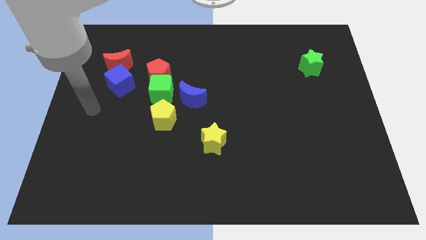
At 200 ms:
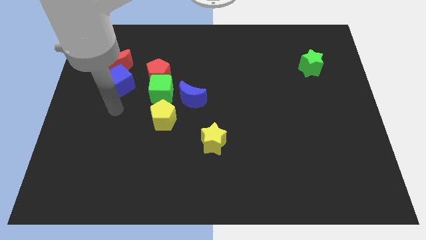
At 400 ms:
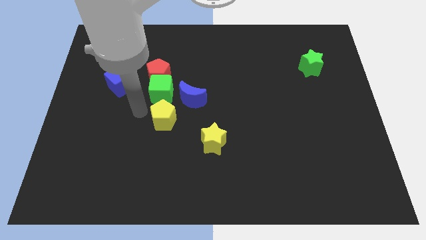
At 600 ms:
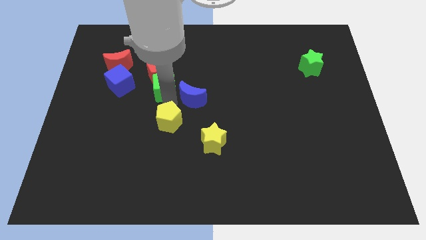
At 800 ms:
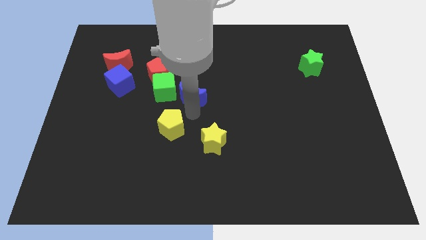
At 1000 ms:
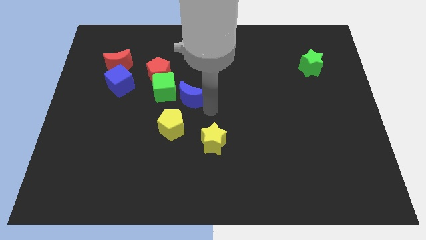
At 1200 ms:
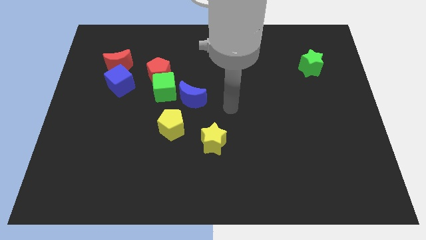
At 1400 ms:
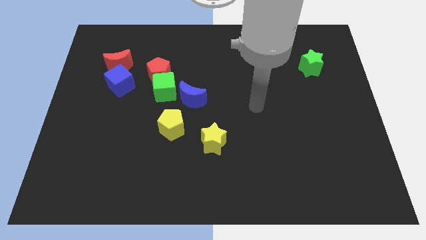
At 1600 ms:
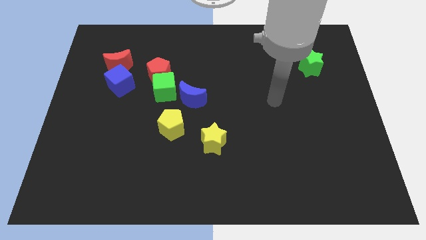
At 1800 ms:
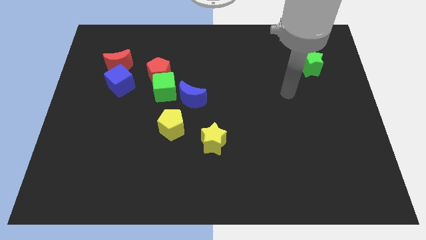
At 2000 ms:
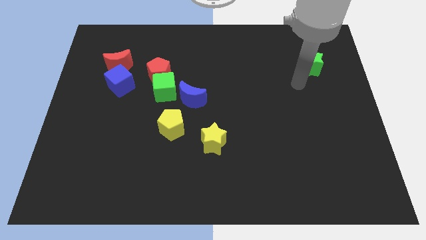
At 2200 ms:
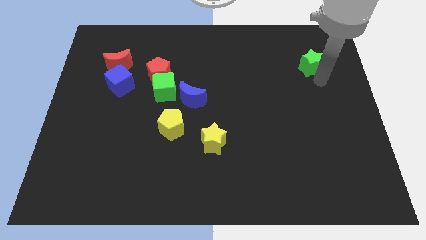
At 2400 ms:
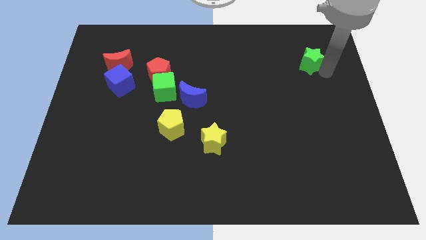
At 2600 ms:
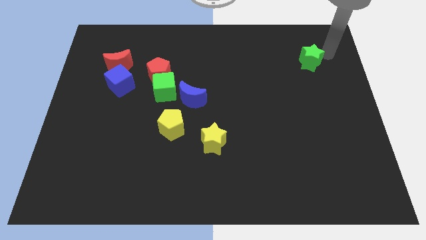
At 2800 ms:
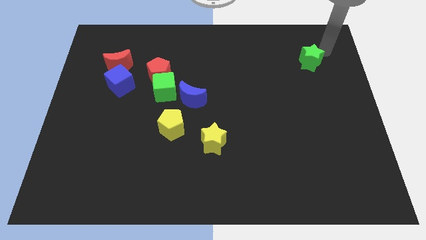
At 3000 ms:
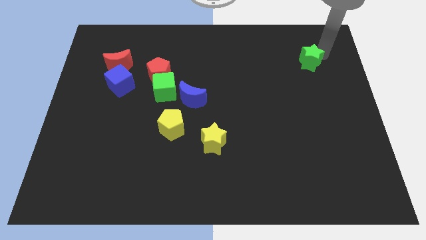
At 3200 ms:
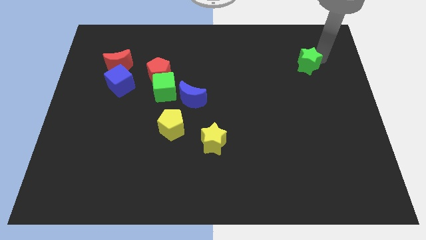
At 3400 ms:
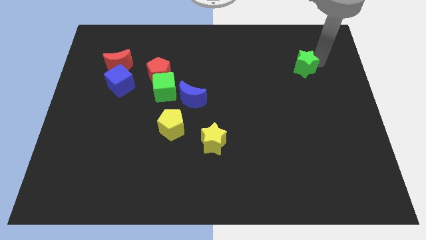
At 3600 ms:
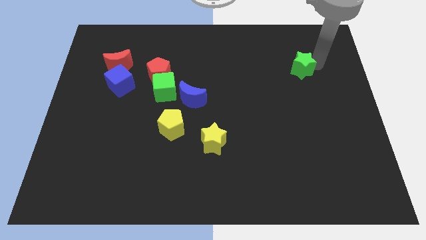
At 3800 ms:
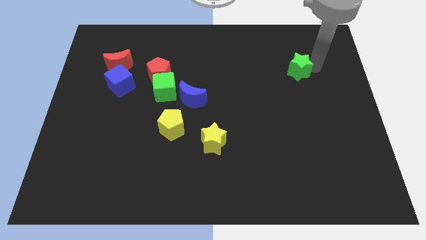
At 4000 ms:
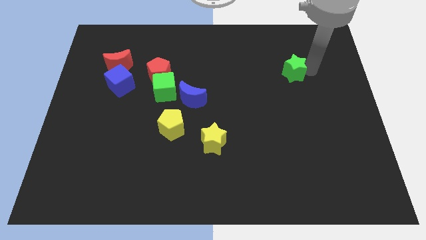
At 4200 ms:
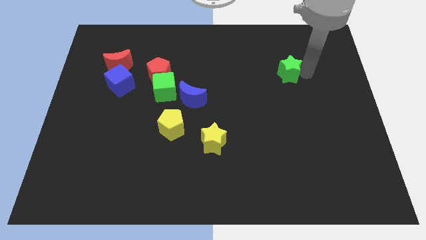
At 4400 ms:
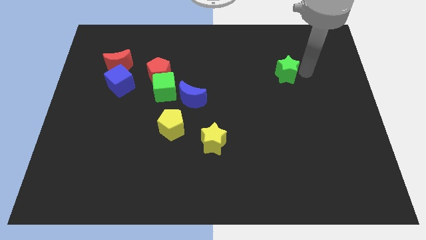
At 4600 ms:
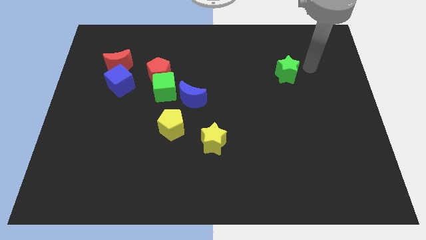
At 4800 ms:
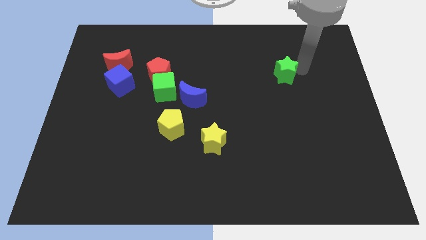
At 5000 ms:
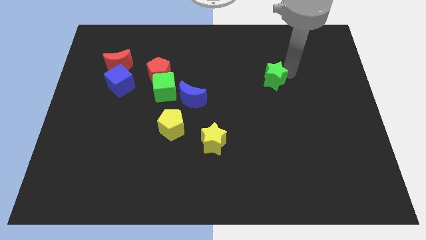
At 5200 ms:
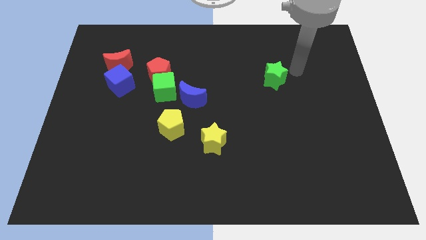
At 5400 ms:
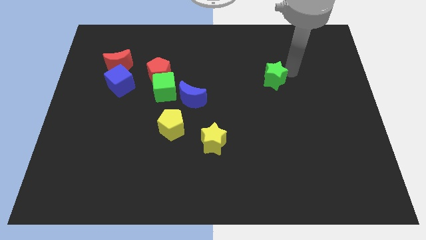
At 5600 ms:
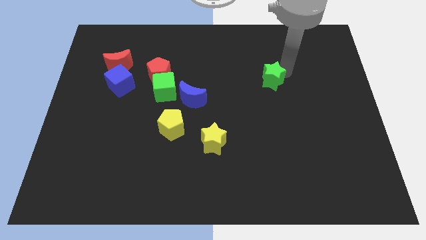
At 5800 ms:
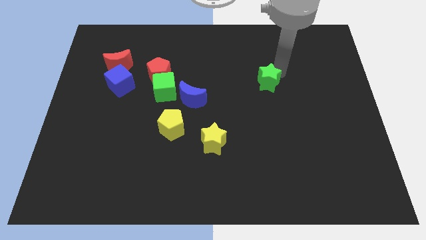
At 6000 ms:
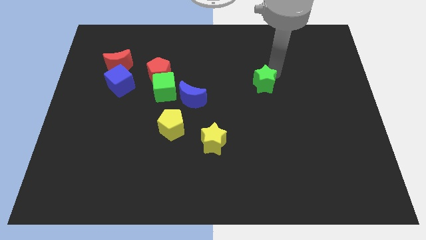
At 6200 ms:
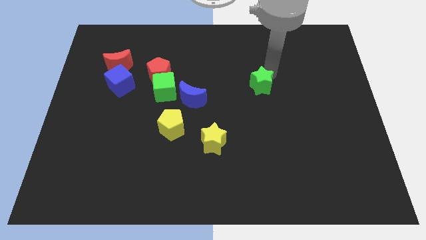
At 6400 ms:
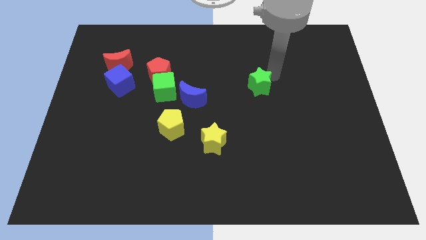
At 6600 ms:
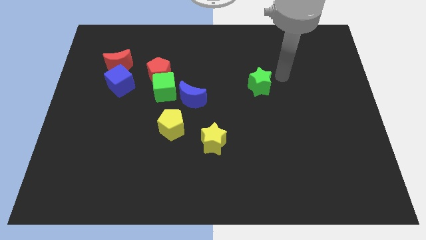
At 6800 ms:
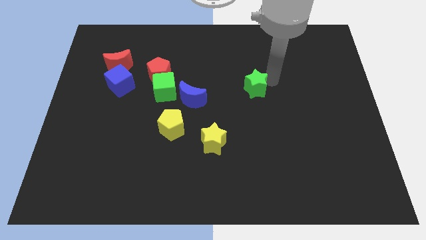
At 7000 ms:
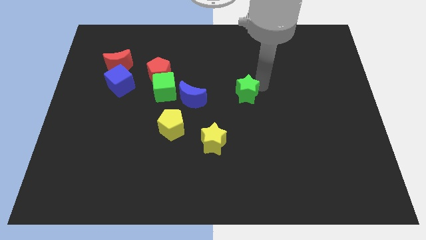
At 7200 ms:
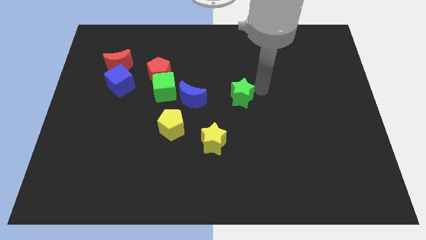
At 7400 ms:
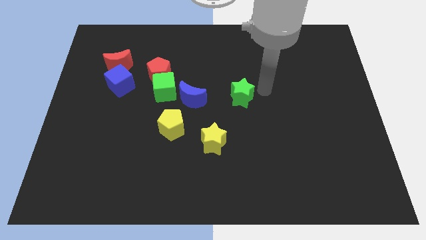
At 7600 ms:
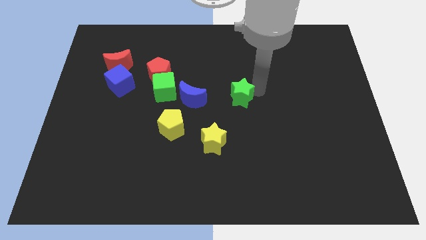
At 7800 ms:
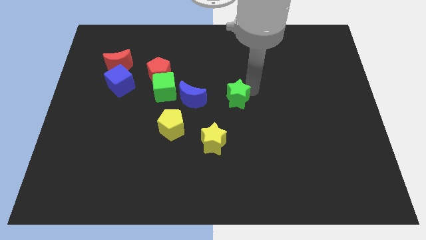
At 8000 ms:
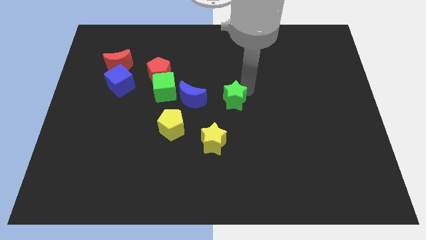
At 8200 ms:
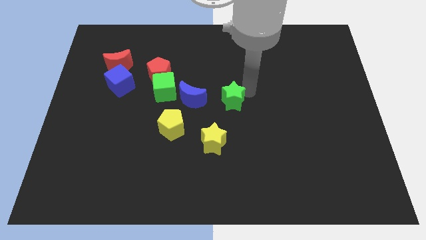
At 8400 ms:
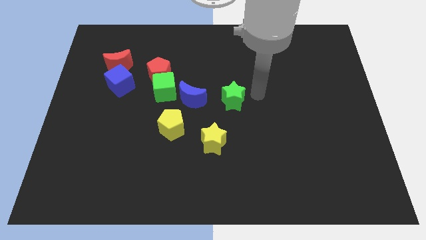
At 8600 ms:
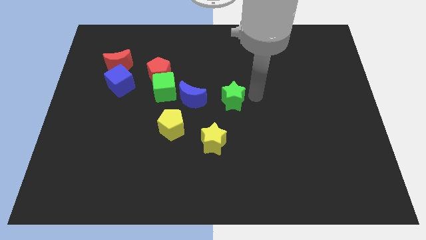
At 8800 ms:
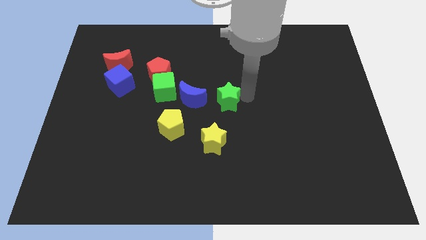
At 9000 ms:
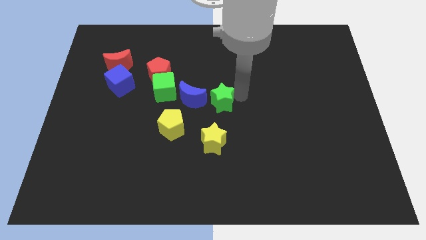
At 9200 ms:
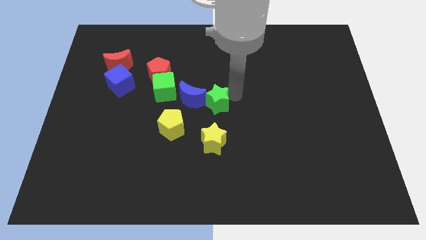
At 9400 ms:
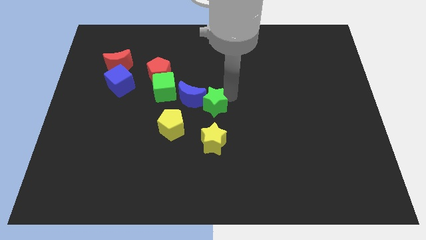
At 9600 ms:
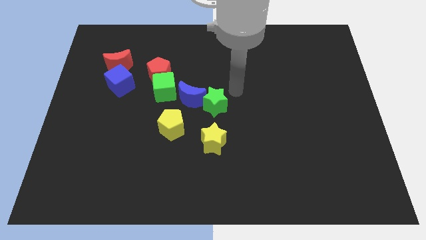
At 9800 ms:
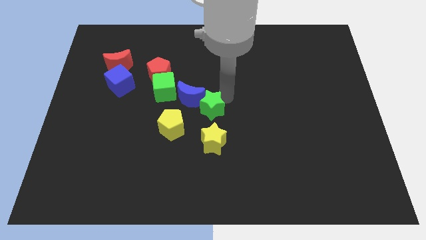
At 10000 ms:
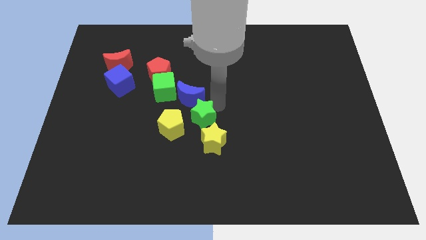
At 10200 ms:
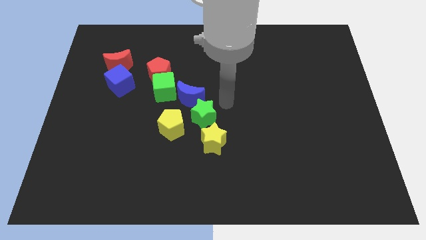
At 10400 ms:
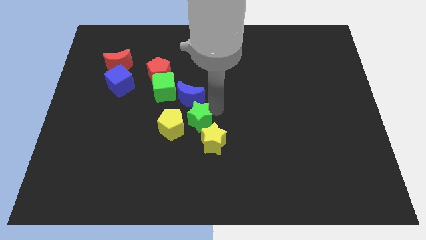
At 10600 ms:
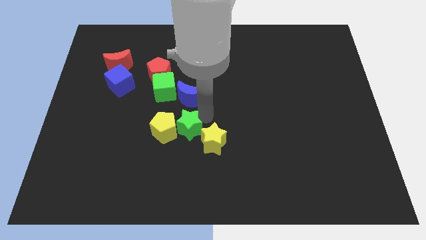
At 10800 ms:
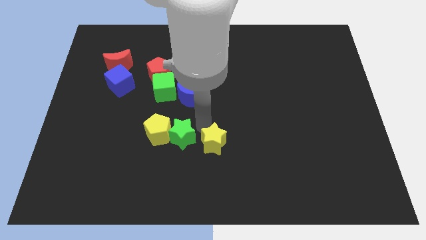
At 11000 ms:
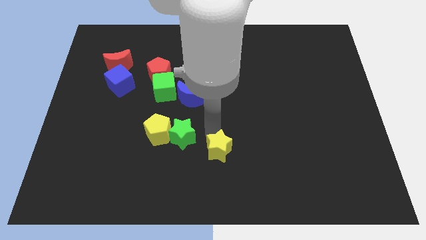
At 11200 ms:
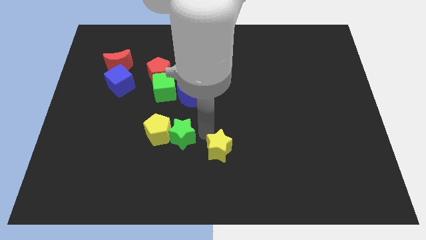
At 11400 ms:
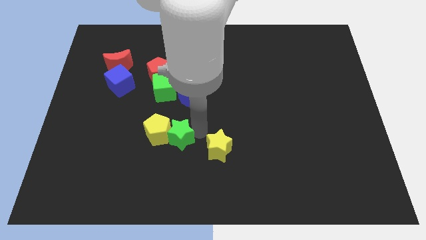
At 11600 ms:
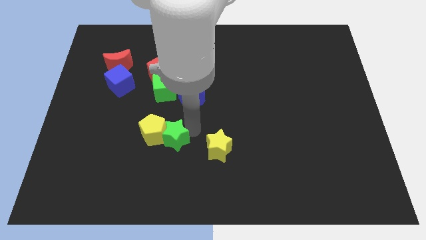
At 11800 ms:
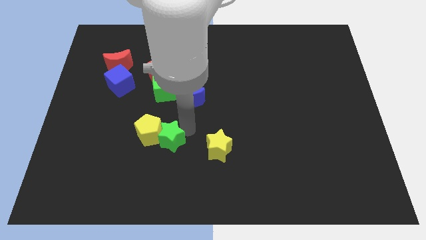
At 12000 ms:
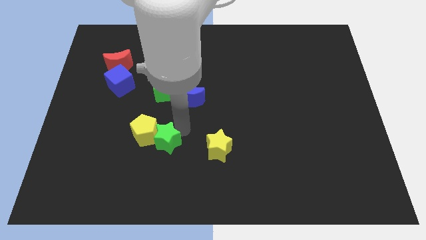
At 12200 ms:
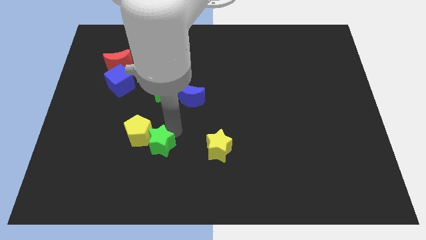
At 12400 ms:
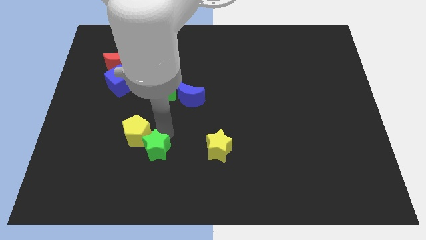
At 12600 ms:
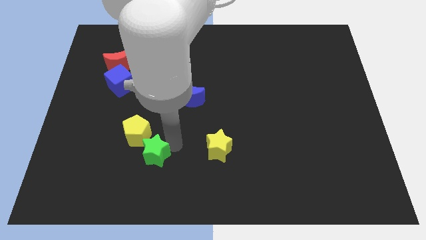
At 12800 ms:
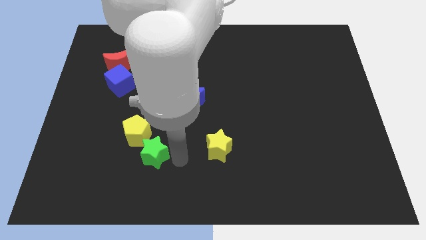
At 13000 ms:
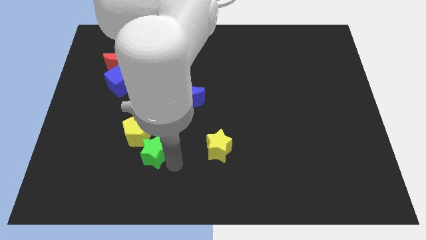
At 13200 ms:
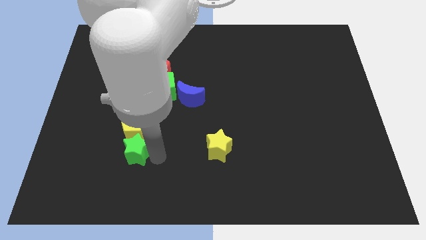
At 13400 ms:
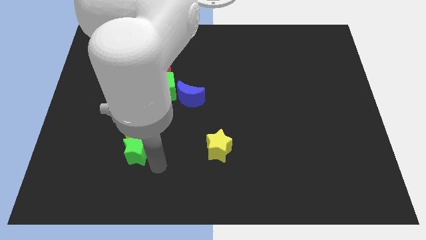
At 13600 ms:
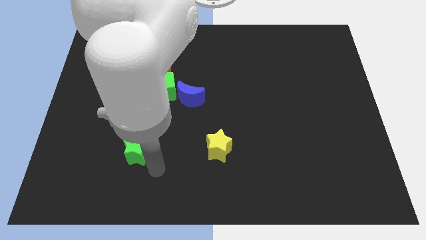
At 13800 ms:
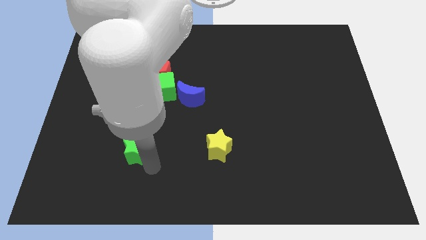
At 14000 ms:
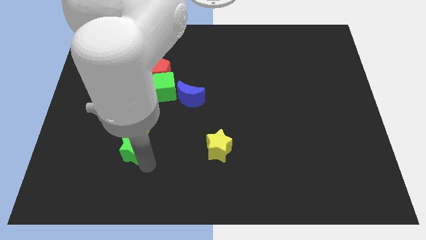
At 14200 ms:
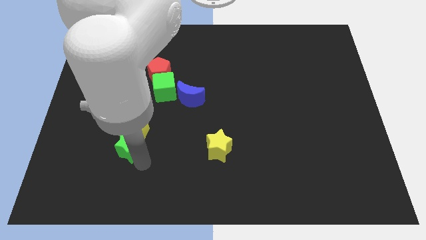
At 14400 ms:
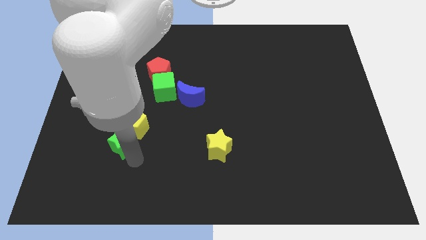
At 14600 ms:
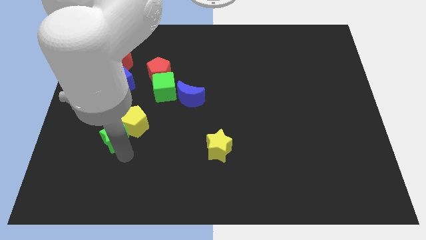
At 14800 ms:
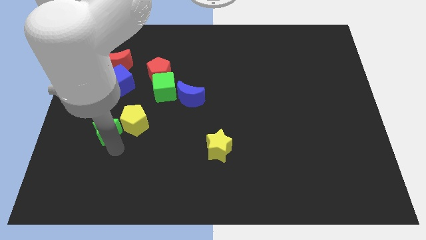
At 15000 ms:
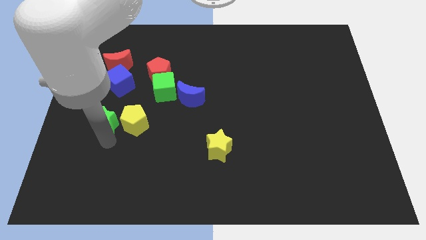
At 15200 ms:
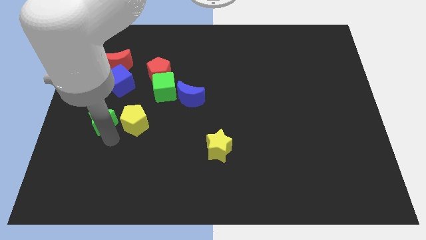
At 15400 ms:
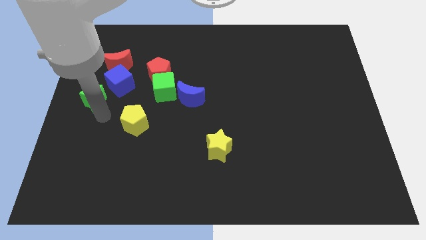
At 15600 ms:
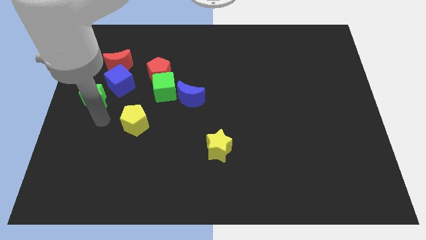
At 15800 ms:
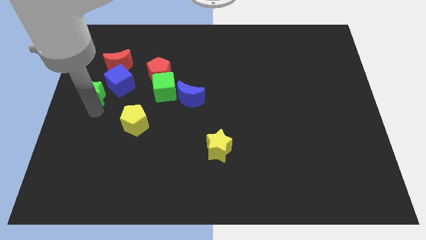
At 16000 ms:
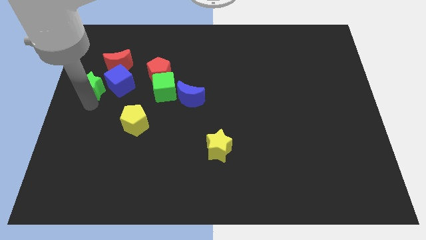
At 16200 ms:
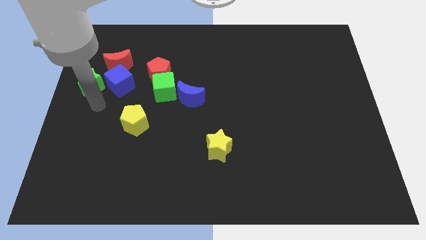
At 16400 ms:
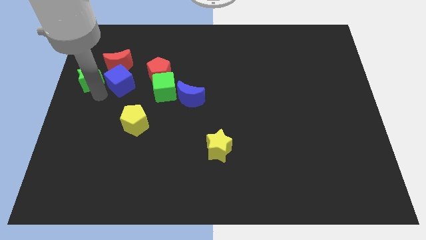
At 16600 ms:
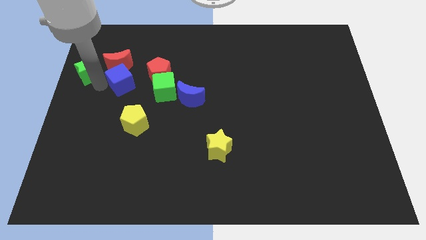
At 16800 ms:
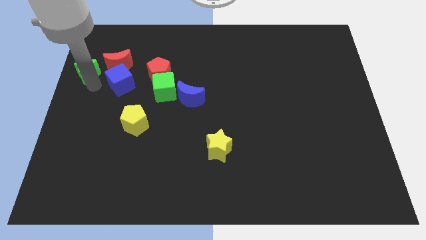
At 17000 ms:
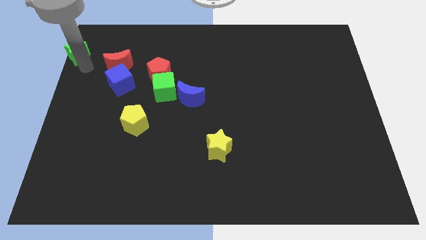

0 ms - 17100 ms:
push the green star to the top left of the board
